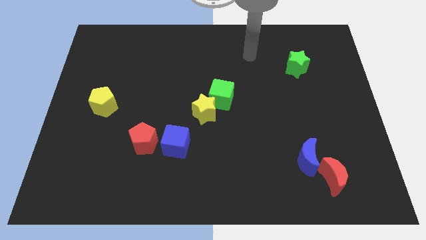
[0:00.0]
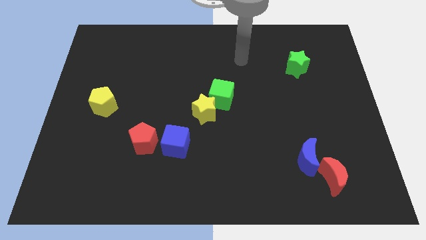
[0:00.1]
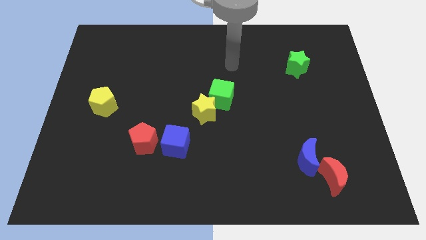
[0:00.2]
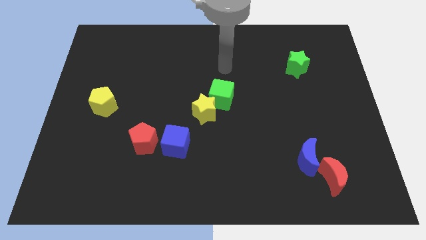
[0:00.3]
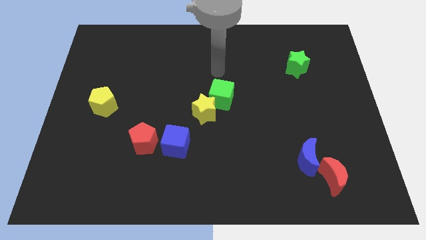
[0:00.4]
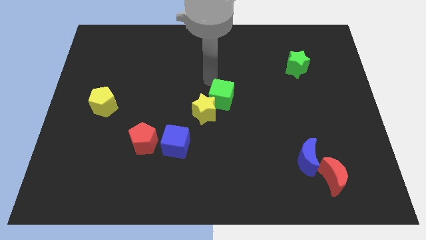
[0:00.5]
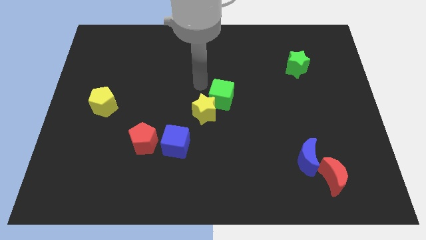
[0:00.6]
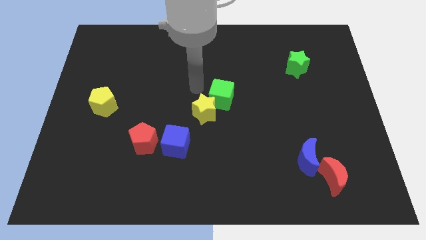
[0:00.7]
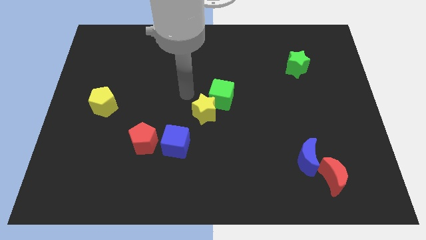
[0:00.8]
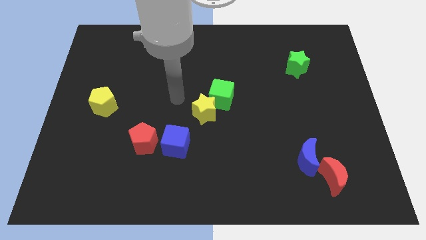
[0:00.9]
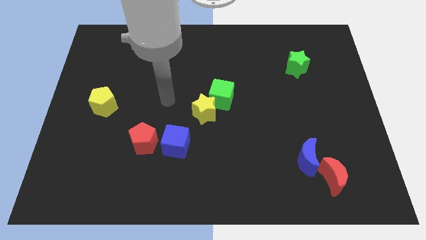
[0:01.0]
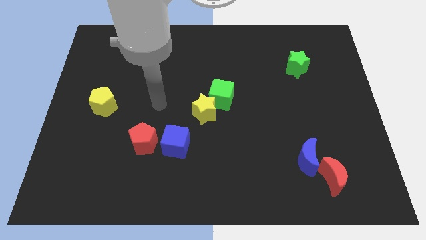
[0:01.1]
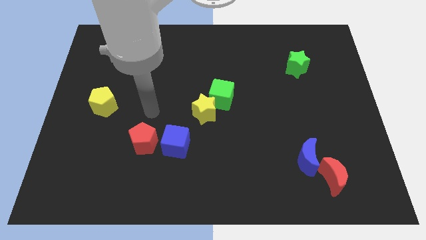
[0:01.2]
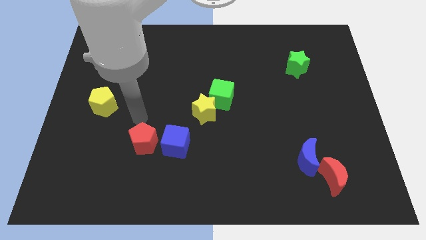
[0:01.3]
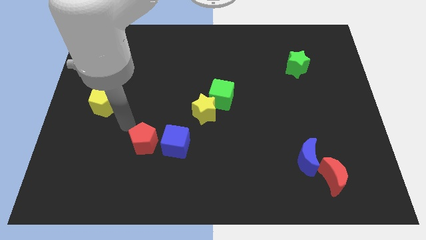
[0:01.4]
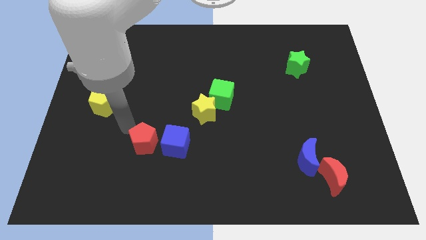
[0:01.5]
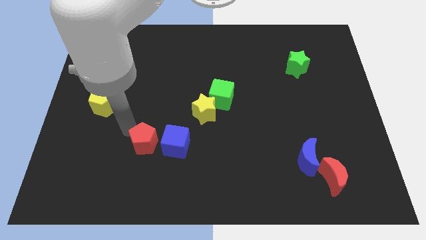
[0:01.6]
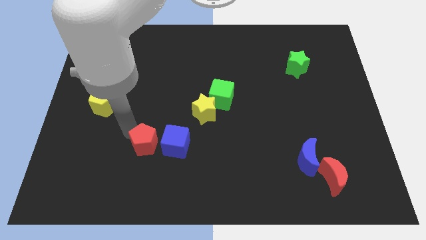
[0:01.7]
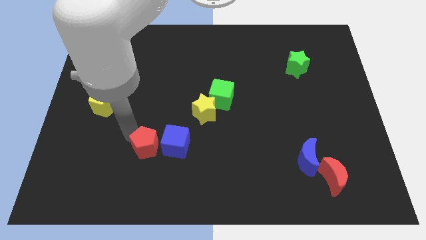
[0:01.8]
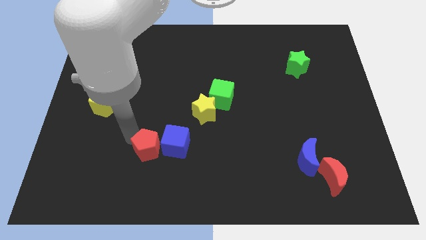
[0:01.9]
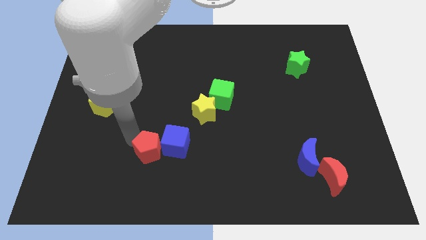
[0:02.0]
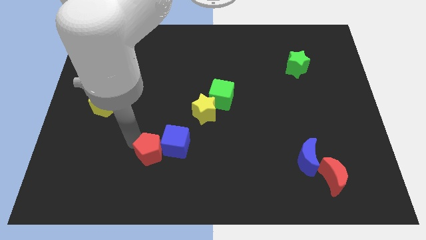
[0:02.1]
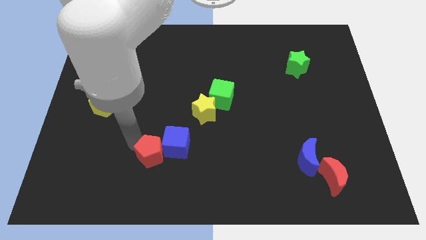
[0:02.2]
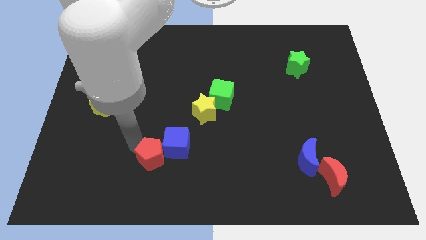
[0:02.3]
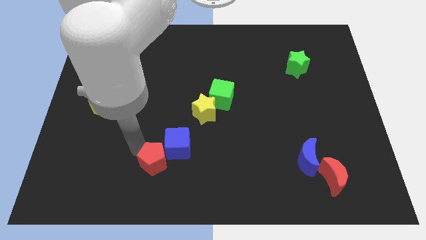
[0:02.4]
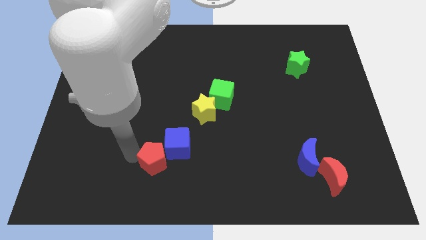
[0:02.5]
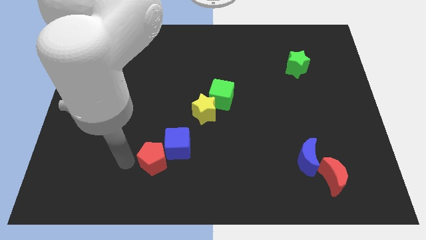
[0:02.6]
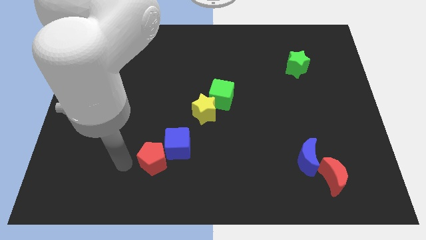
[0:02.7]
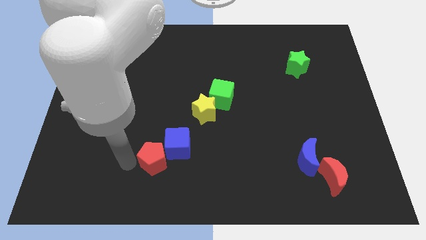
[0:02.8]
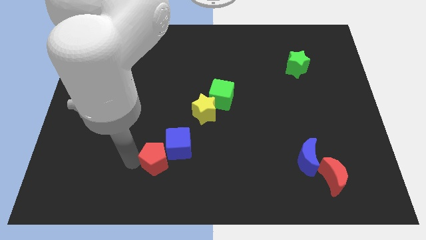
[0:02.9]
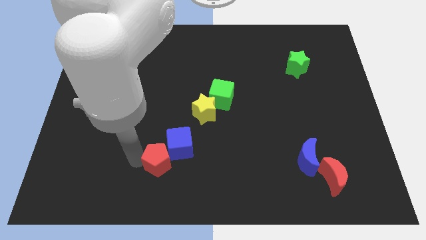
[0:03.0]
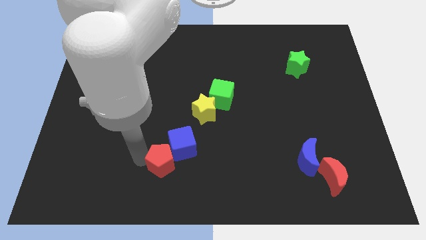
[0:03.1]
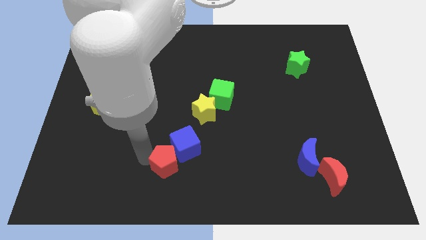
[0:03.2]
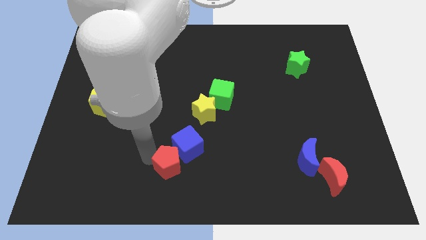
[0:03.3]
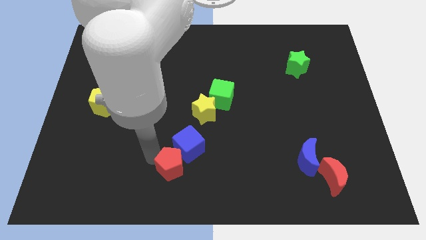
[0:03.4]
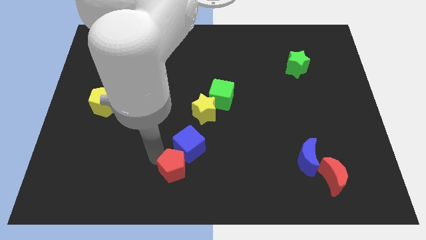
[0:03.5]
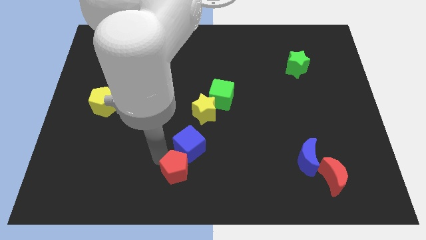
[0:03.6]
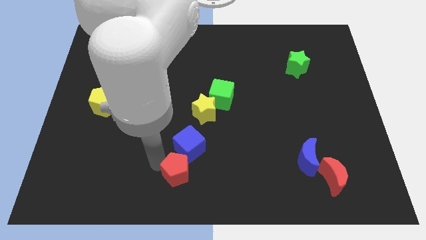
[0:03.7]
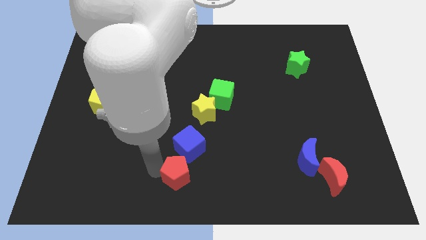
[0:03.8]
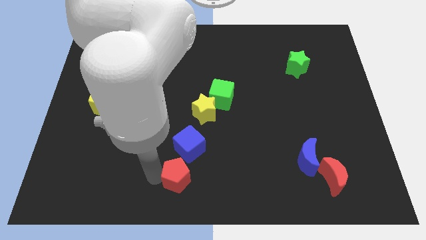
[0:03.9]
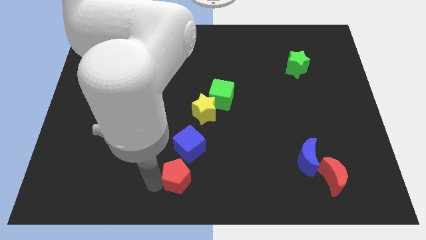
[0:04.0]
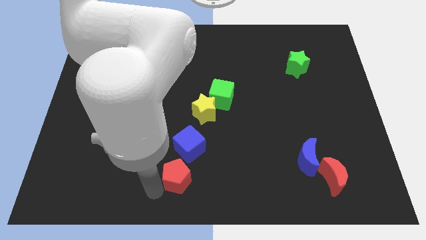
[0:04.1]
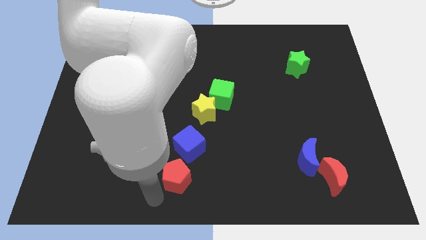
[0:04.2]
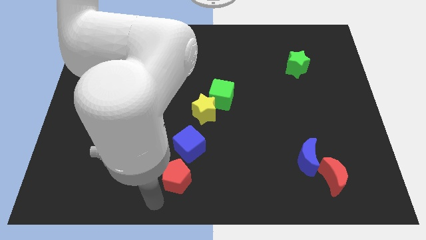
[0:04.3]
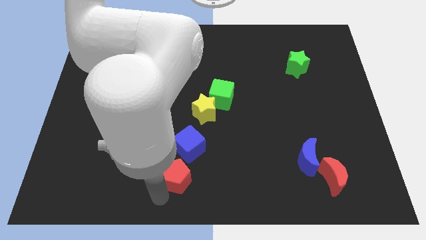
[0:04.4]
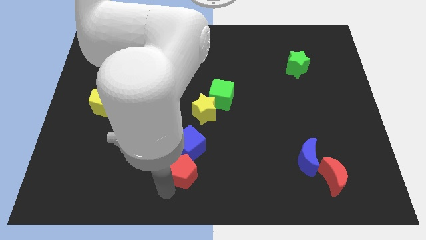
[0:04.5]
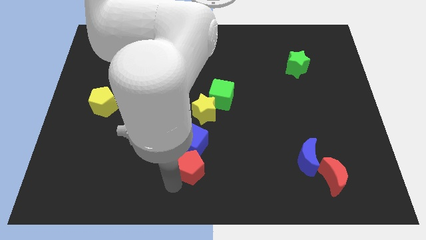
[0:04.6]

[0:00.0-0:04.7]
slightly move the red pentagon right

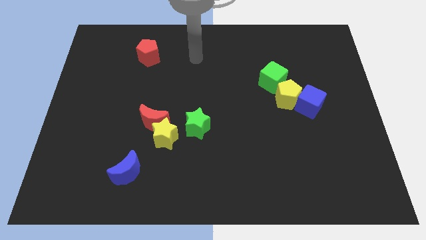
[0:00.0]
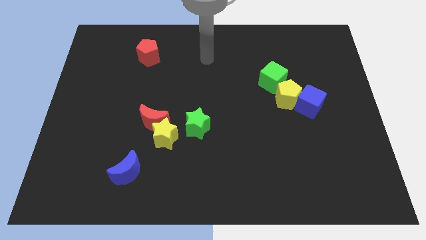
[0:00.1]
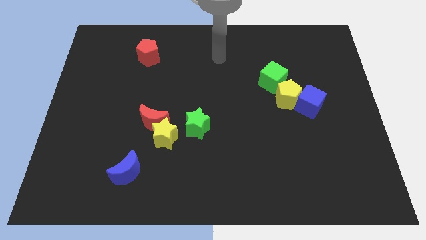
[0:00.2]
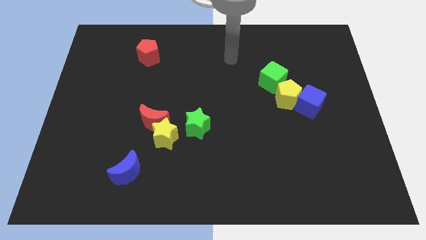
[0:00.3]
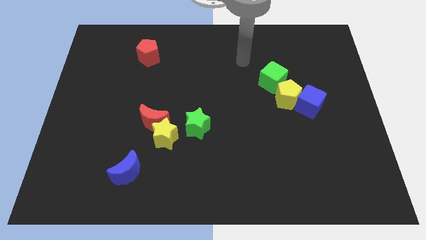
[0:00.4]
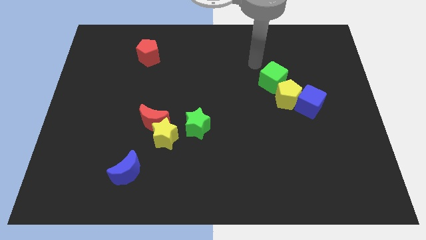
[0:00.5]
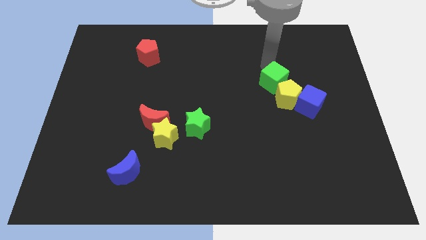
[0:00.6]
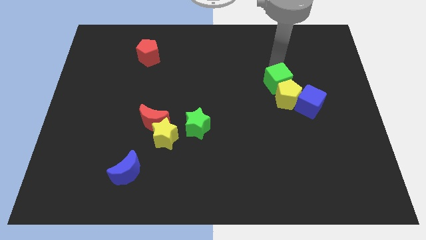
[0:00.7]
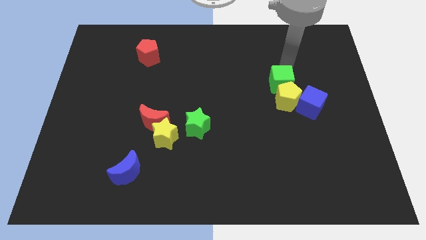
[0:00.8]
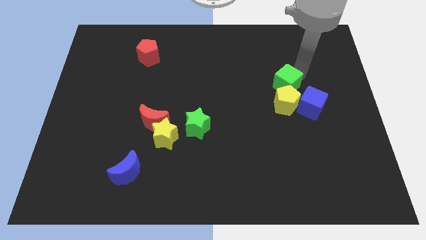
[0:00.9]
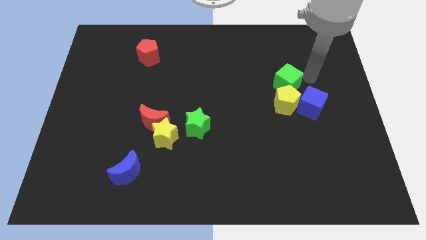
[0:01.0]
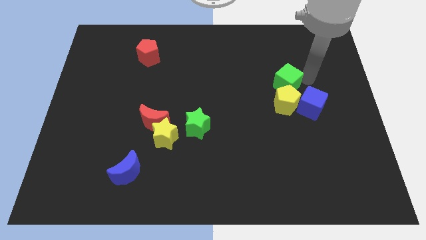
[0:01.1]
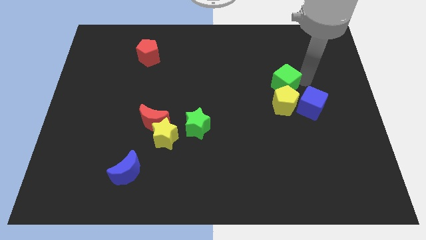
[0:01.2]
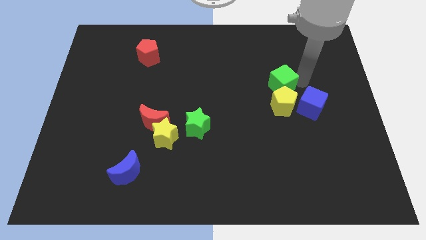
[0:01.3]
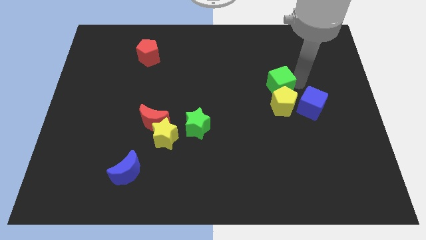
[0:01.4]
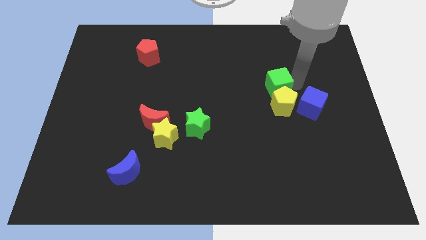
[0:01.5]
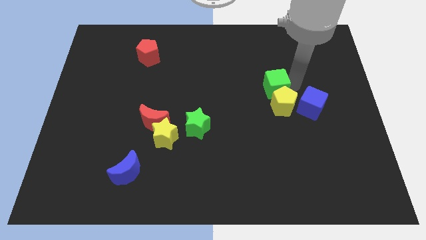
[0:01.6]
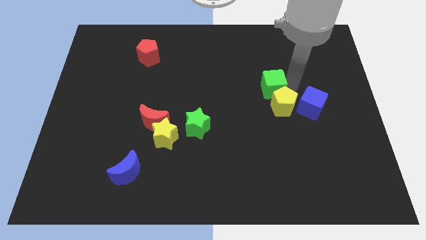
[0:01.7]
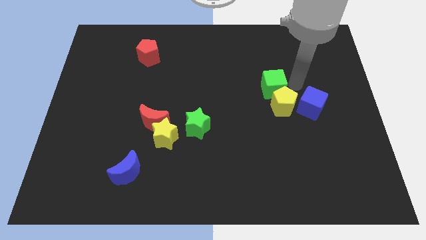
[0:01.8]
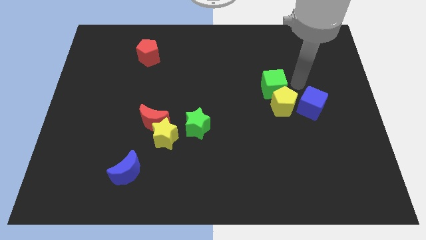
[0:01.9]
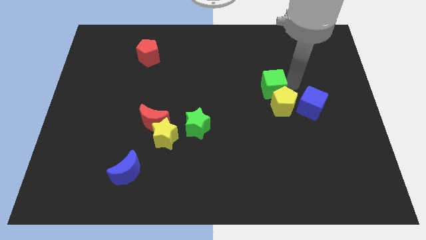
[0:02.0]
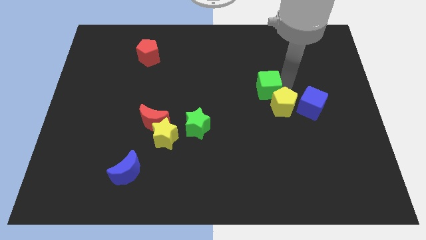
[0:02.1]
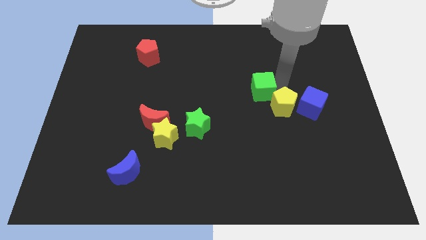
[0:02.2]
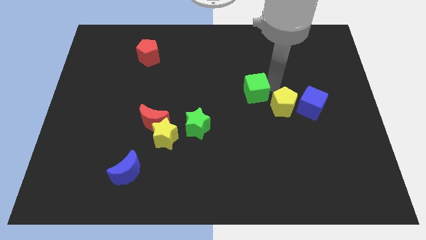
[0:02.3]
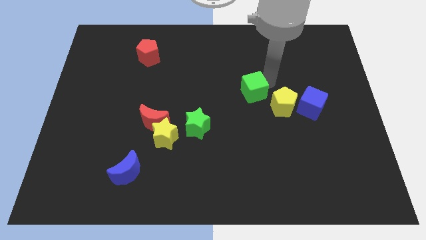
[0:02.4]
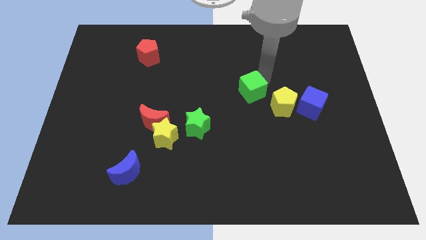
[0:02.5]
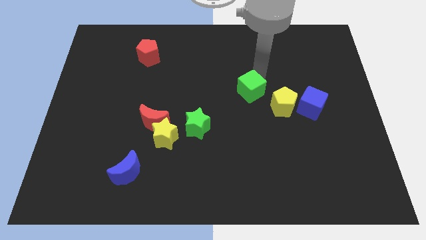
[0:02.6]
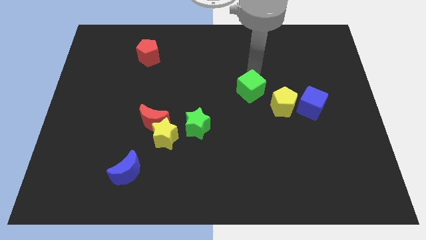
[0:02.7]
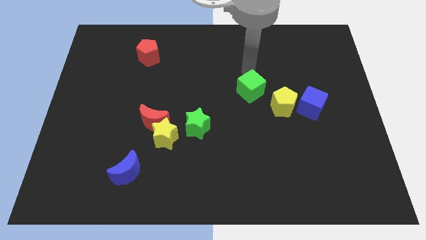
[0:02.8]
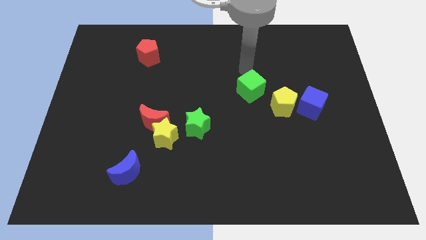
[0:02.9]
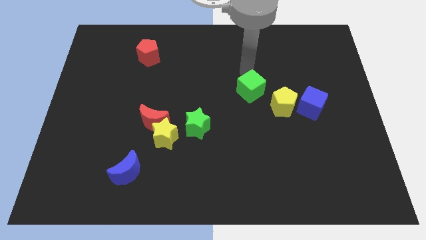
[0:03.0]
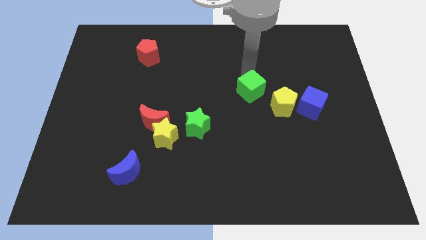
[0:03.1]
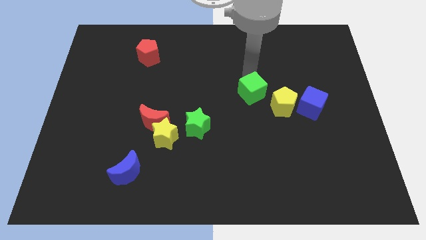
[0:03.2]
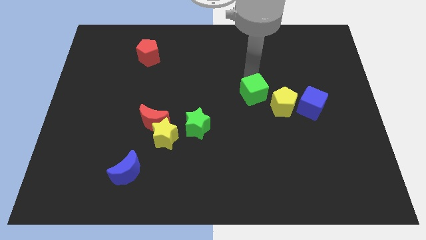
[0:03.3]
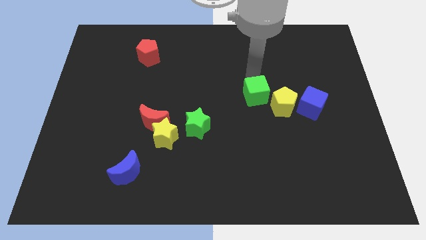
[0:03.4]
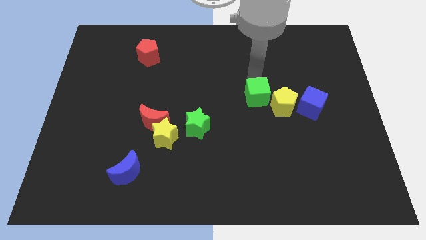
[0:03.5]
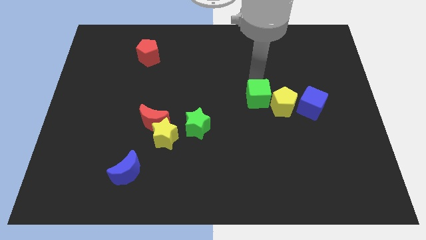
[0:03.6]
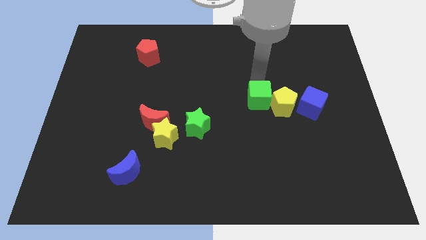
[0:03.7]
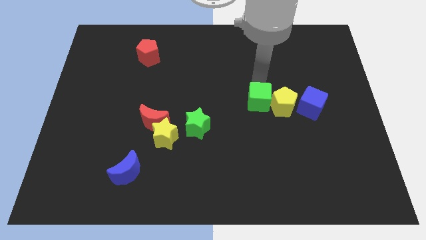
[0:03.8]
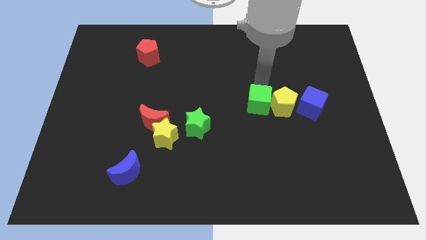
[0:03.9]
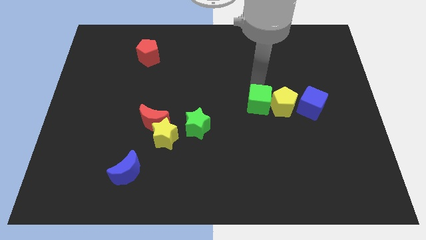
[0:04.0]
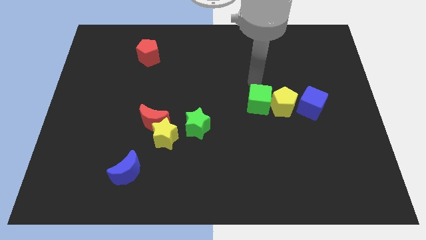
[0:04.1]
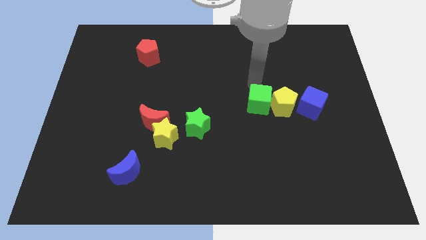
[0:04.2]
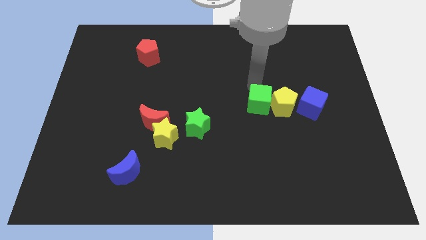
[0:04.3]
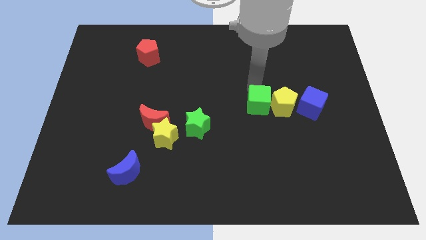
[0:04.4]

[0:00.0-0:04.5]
push the green cube down a little
